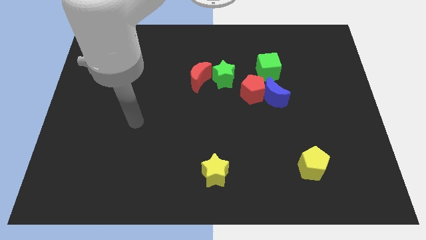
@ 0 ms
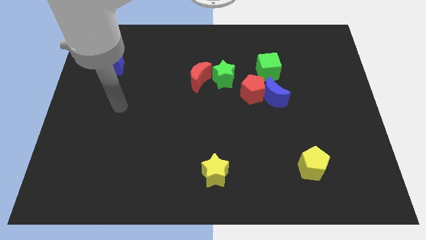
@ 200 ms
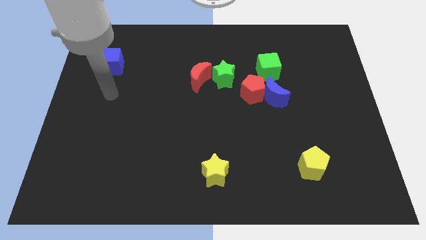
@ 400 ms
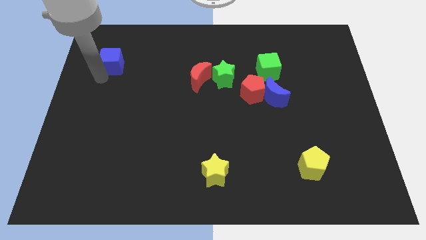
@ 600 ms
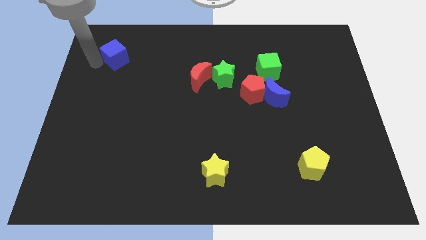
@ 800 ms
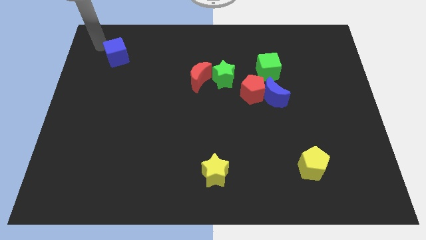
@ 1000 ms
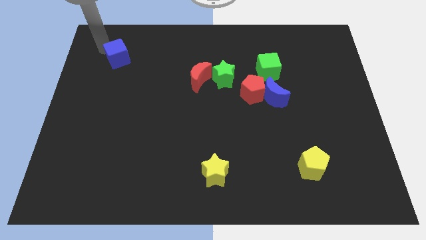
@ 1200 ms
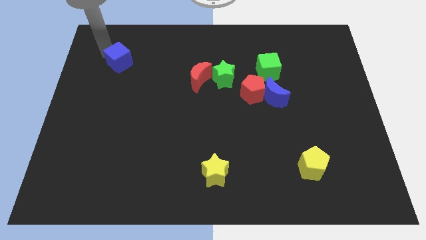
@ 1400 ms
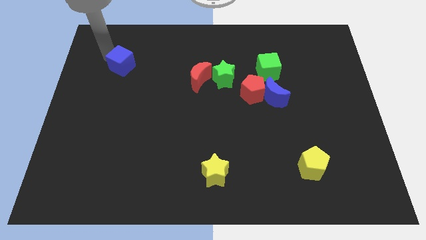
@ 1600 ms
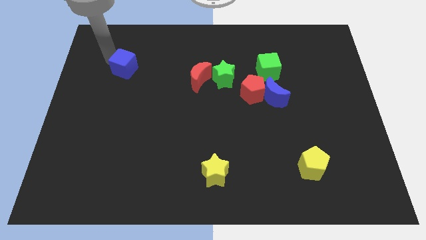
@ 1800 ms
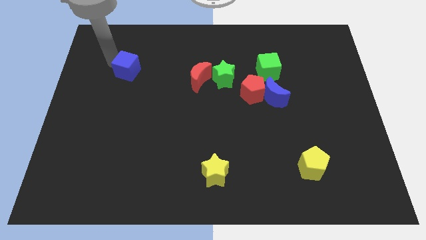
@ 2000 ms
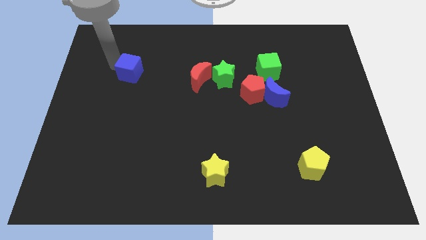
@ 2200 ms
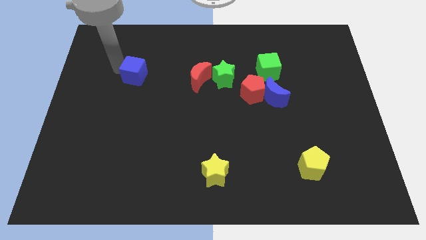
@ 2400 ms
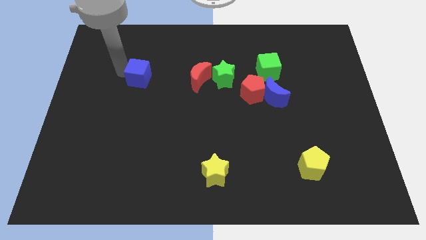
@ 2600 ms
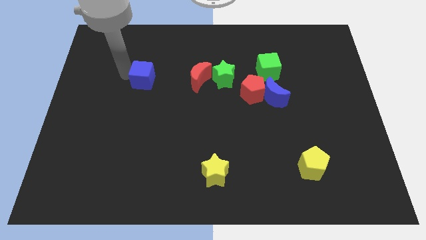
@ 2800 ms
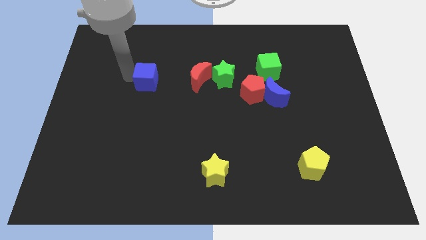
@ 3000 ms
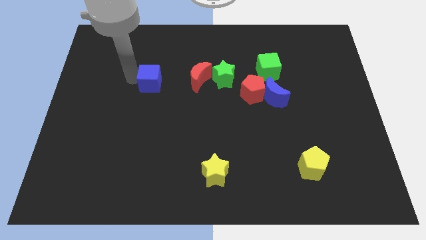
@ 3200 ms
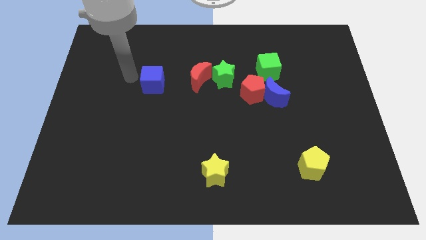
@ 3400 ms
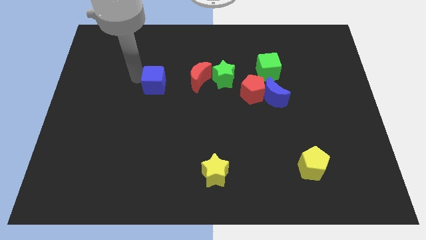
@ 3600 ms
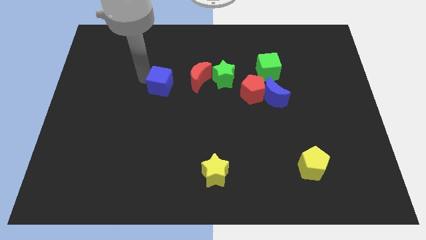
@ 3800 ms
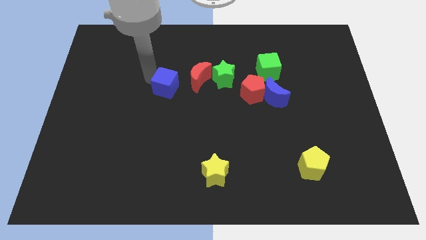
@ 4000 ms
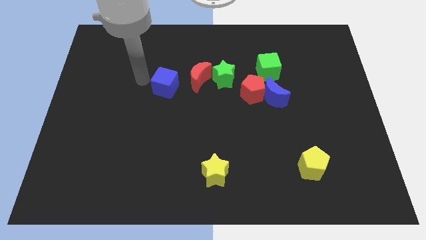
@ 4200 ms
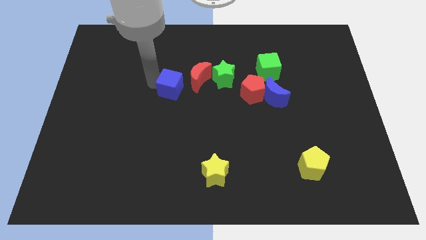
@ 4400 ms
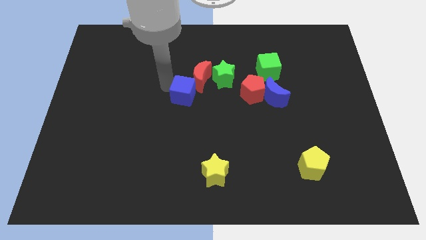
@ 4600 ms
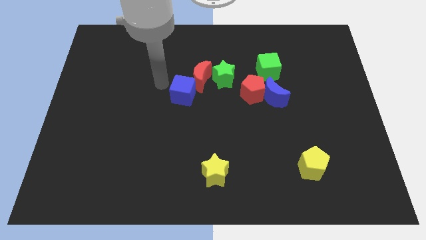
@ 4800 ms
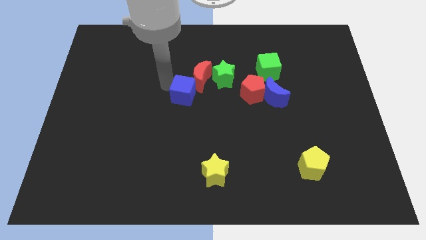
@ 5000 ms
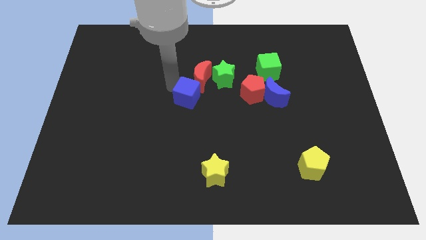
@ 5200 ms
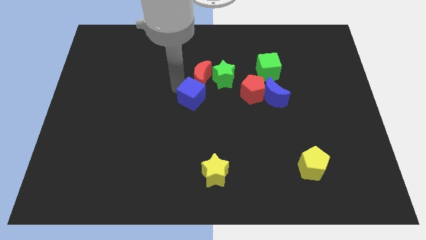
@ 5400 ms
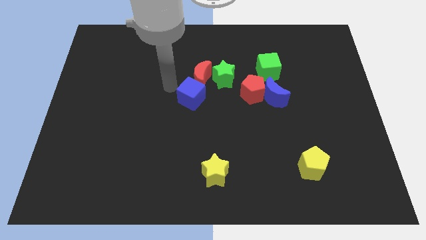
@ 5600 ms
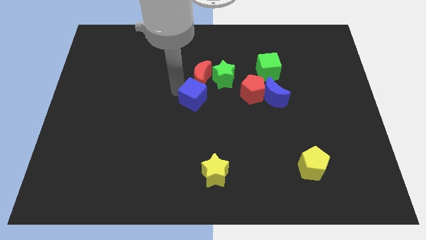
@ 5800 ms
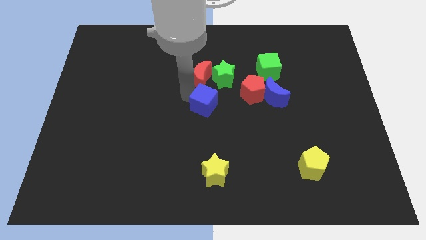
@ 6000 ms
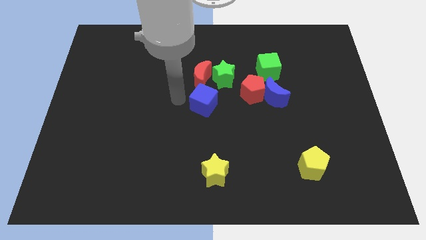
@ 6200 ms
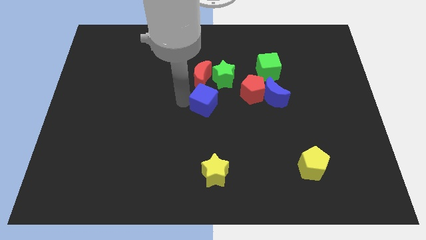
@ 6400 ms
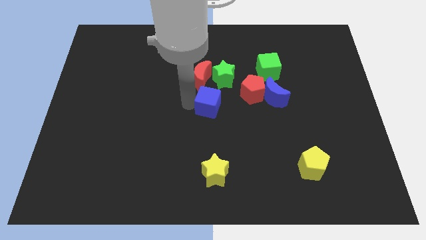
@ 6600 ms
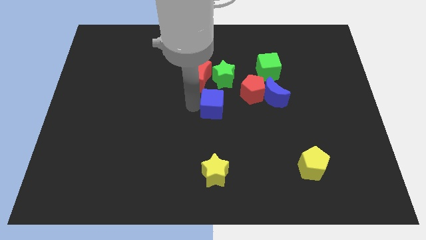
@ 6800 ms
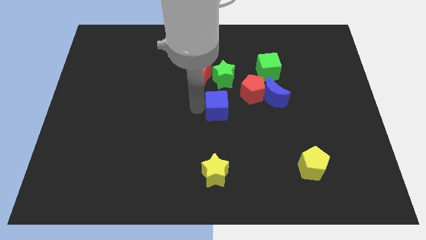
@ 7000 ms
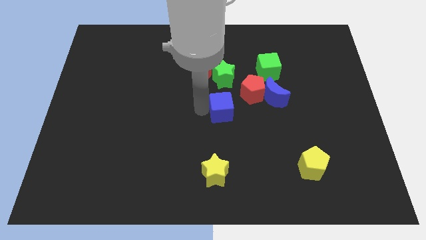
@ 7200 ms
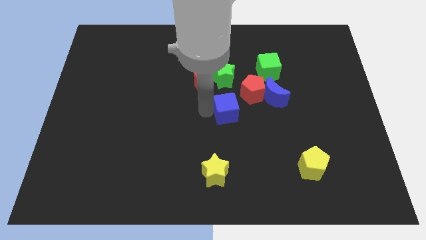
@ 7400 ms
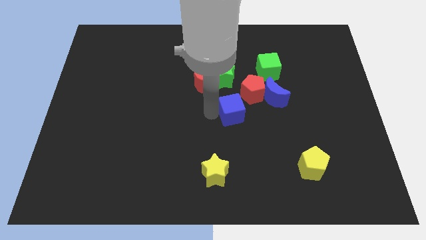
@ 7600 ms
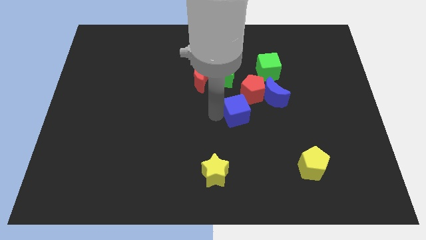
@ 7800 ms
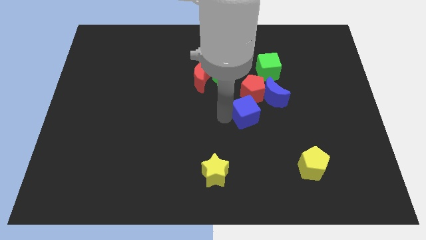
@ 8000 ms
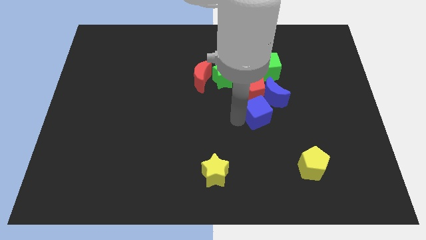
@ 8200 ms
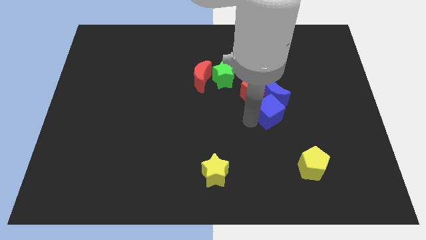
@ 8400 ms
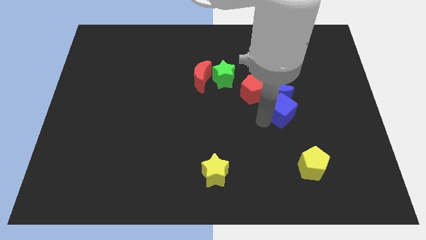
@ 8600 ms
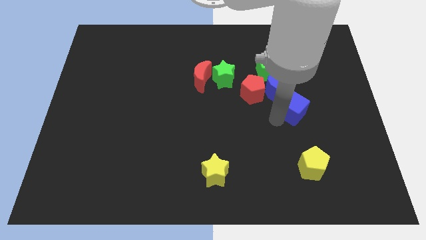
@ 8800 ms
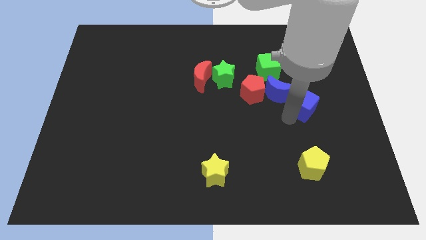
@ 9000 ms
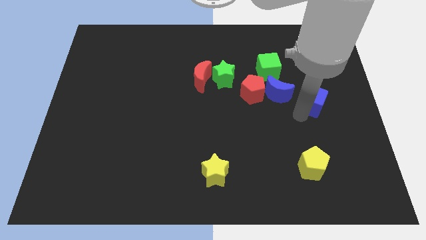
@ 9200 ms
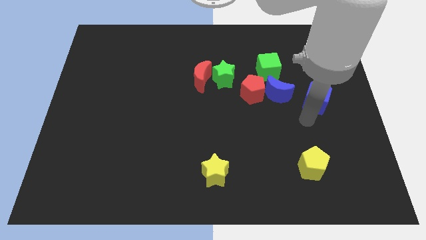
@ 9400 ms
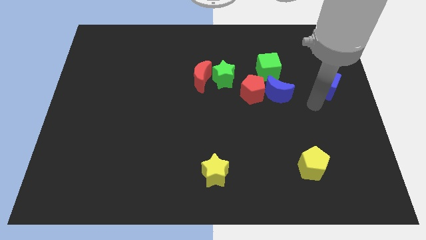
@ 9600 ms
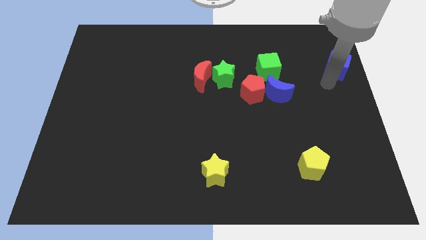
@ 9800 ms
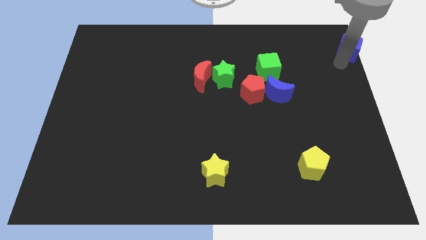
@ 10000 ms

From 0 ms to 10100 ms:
slide the blue cube to the top right

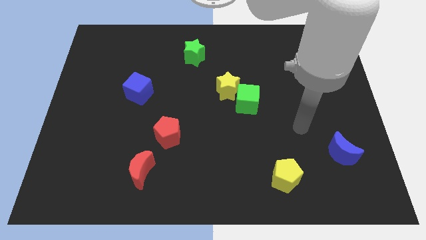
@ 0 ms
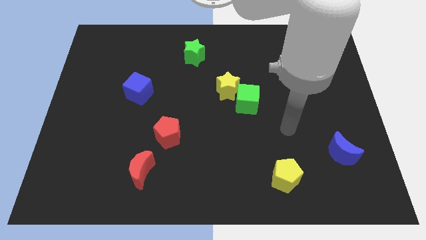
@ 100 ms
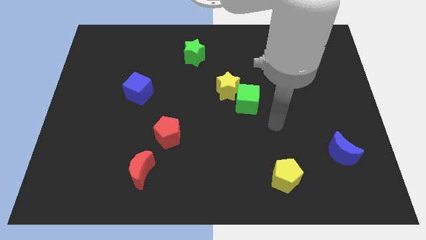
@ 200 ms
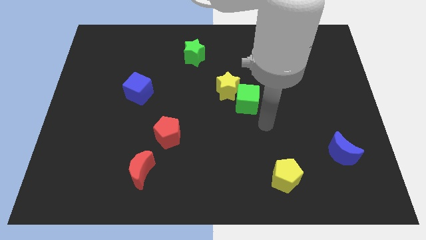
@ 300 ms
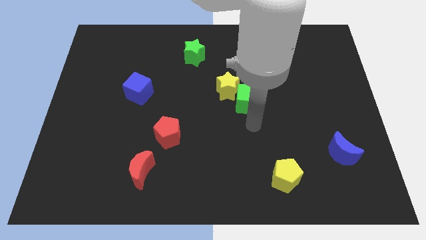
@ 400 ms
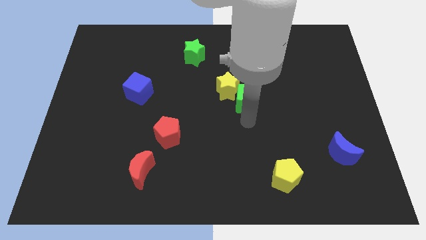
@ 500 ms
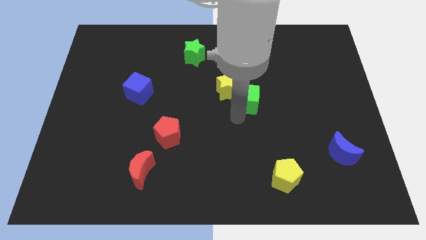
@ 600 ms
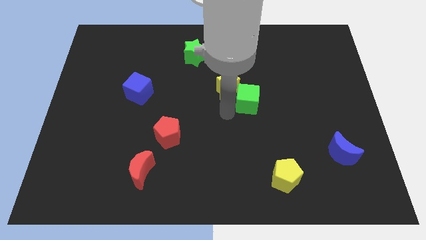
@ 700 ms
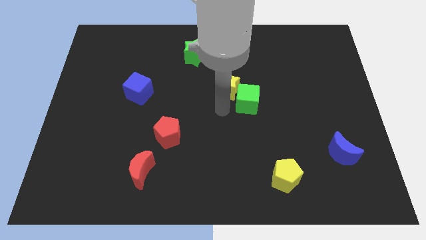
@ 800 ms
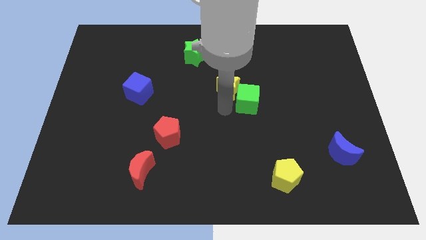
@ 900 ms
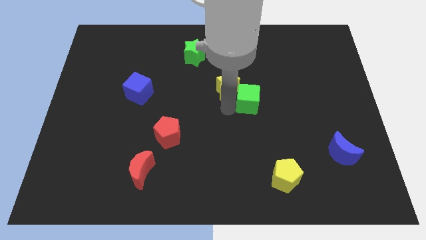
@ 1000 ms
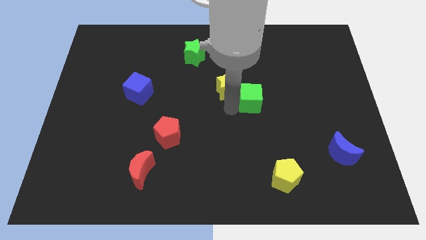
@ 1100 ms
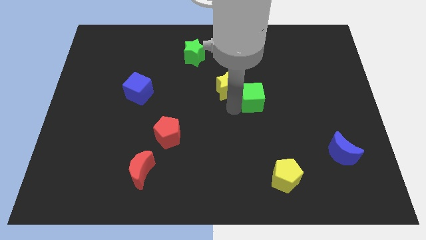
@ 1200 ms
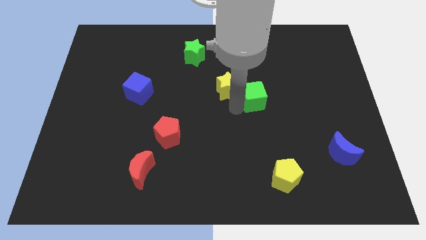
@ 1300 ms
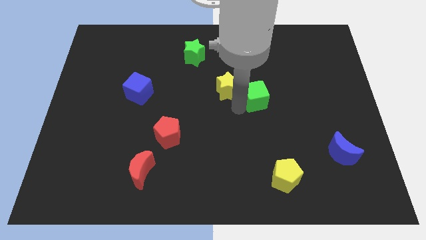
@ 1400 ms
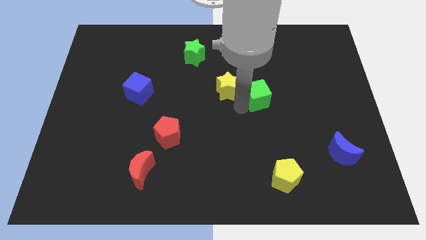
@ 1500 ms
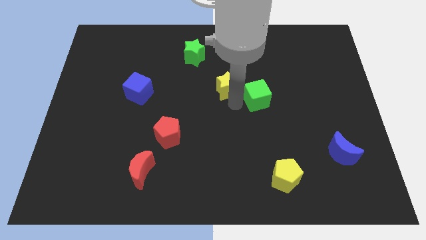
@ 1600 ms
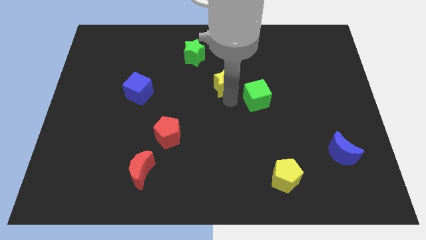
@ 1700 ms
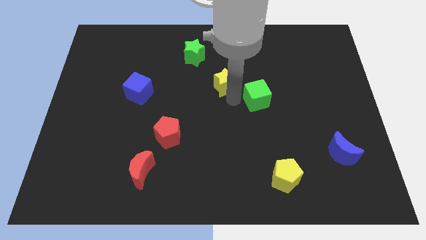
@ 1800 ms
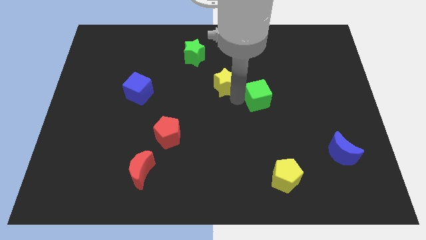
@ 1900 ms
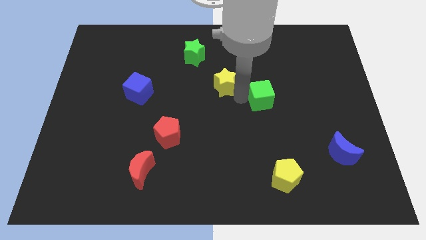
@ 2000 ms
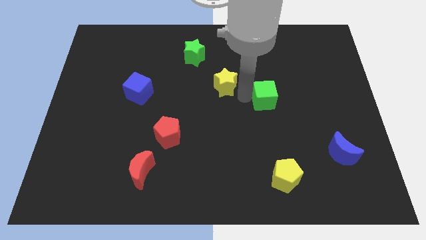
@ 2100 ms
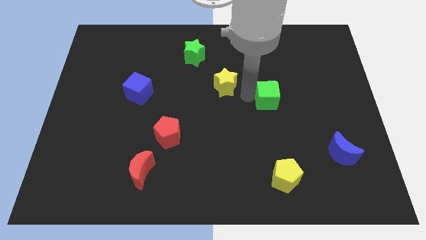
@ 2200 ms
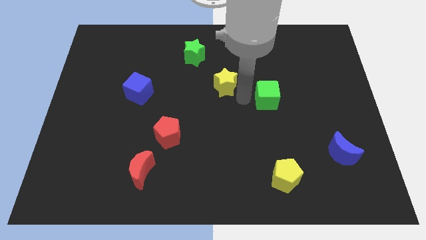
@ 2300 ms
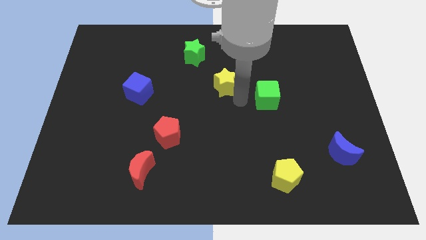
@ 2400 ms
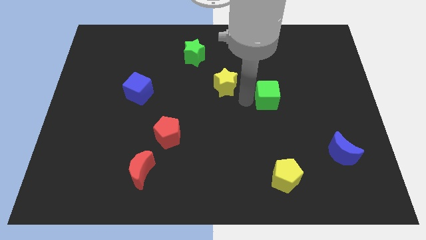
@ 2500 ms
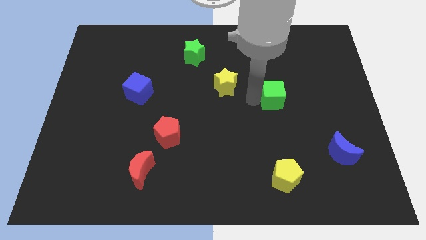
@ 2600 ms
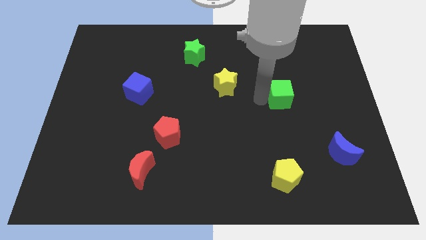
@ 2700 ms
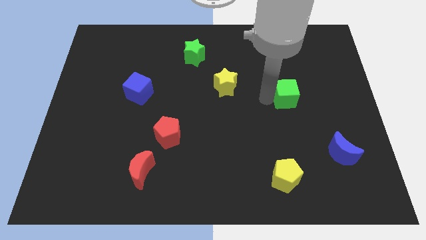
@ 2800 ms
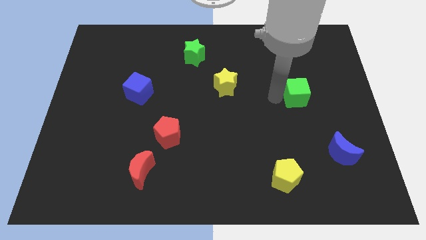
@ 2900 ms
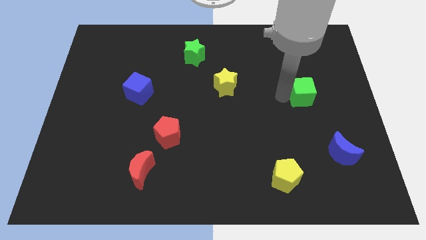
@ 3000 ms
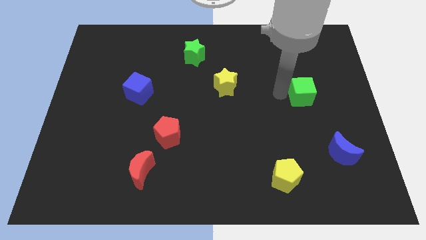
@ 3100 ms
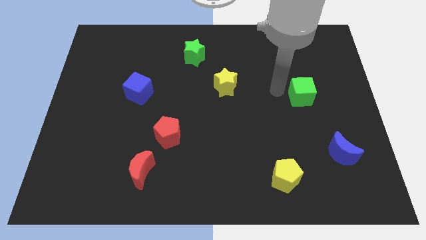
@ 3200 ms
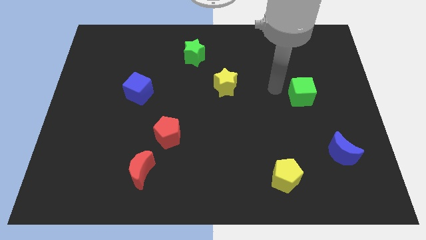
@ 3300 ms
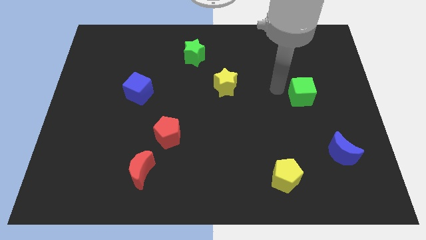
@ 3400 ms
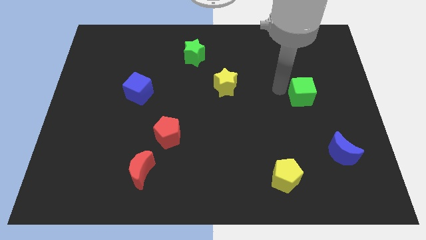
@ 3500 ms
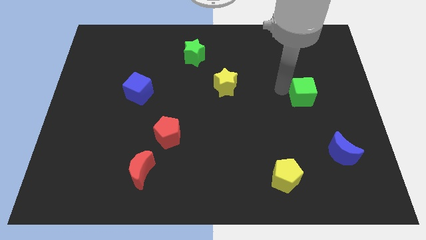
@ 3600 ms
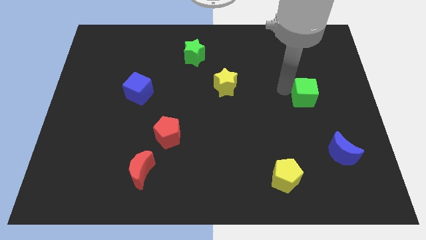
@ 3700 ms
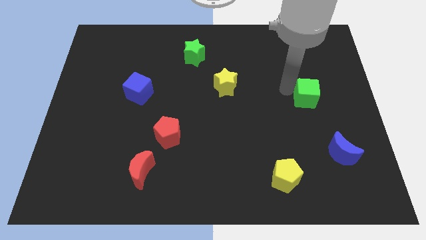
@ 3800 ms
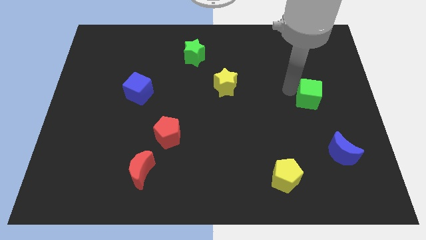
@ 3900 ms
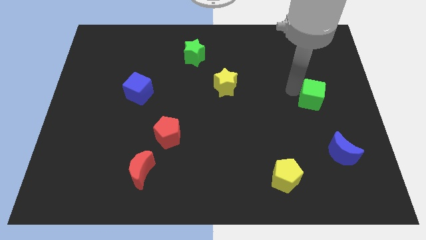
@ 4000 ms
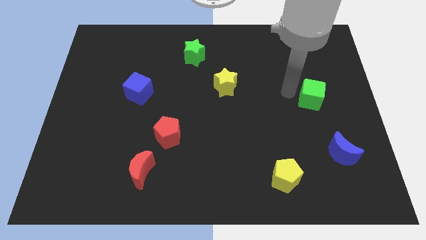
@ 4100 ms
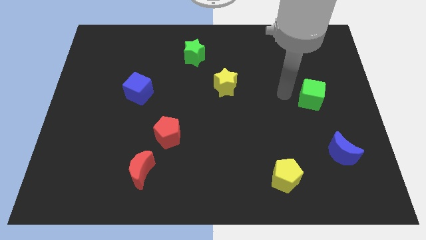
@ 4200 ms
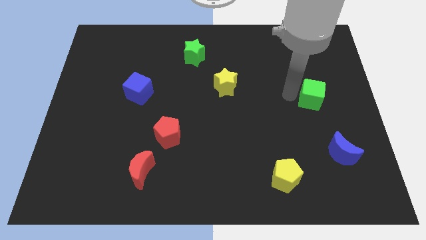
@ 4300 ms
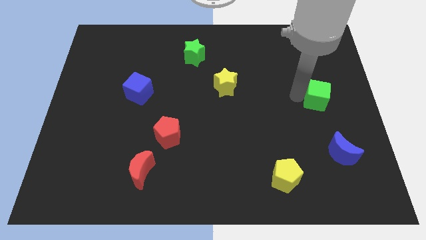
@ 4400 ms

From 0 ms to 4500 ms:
move the green cube to the right side
